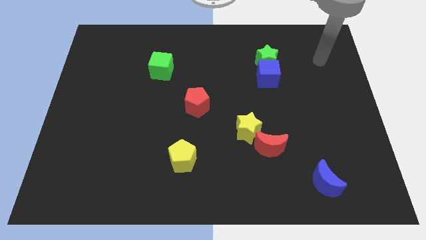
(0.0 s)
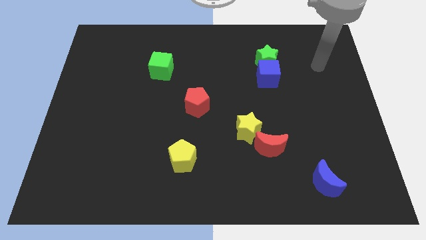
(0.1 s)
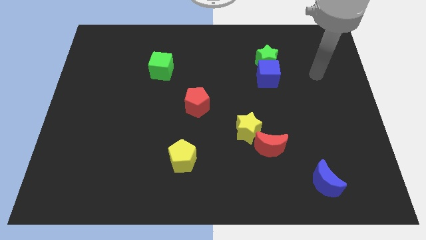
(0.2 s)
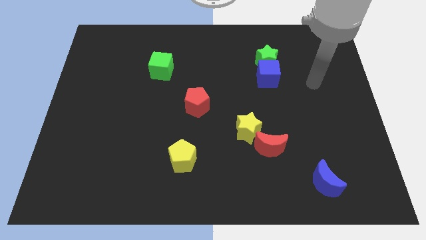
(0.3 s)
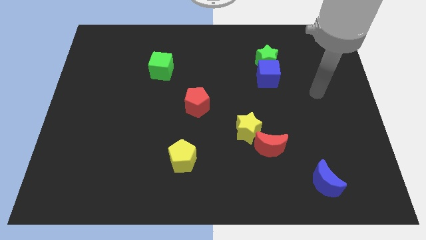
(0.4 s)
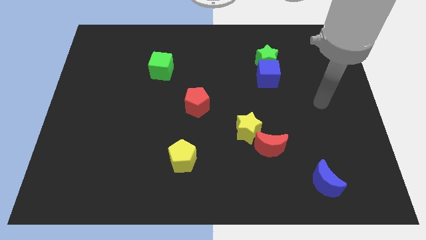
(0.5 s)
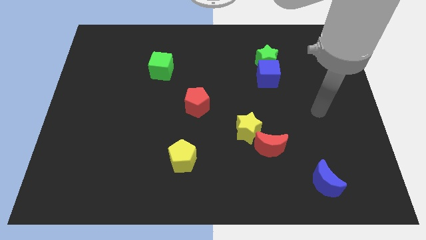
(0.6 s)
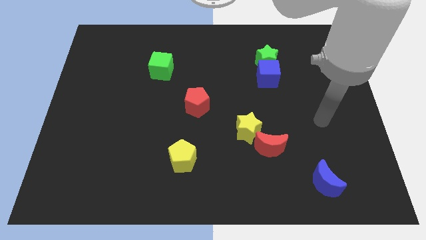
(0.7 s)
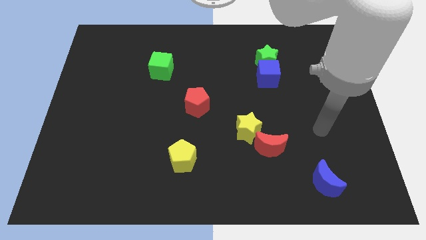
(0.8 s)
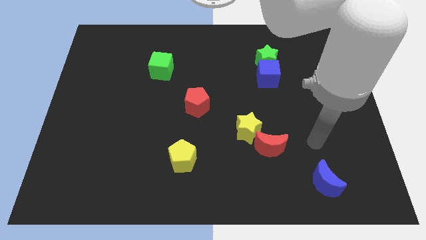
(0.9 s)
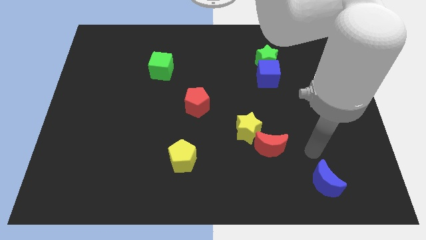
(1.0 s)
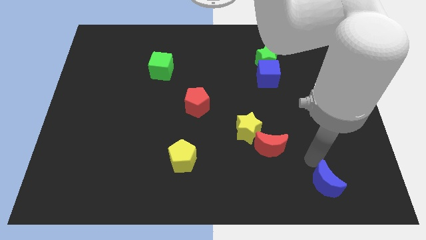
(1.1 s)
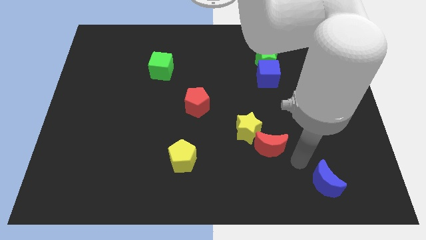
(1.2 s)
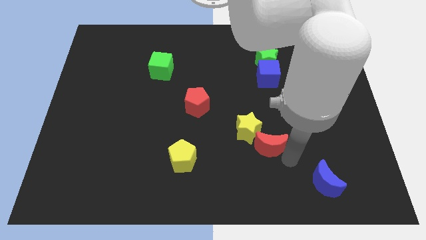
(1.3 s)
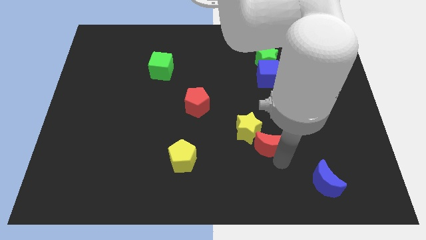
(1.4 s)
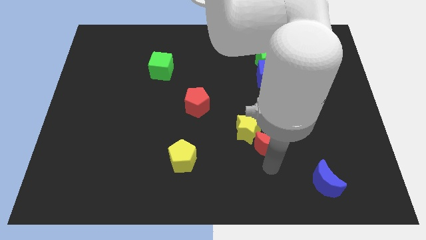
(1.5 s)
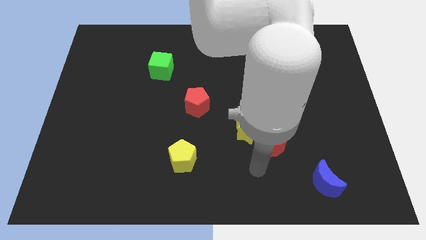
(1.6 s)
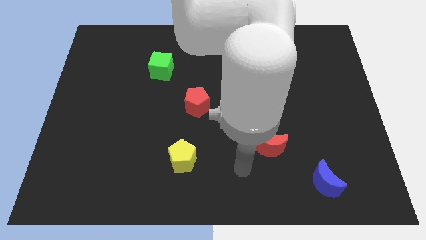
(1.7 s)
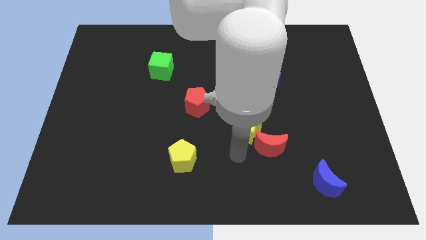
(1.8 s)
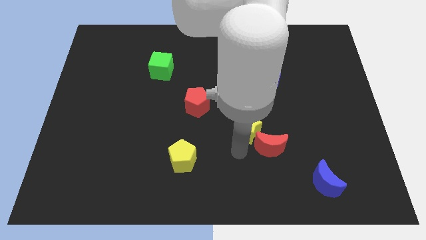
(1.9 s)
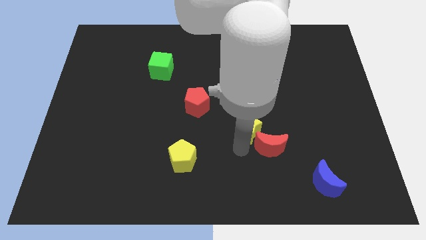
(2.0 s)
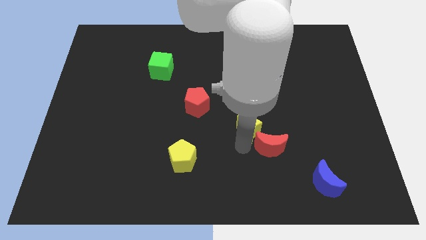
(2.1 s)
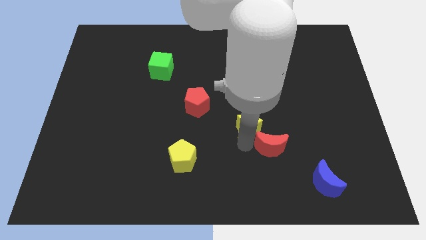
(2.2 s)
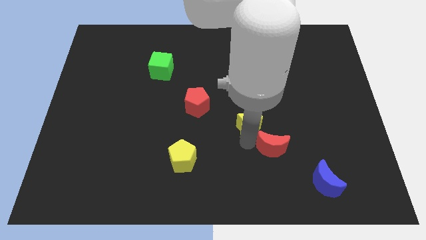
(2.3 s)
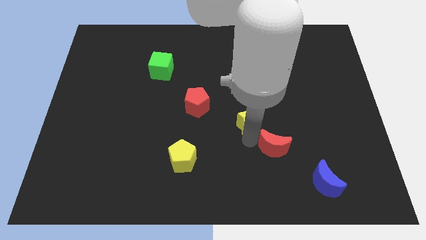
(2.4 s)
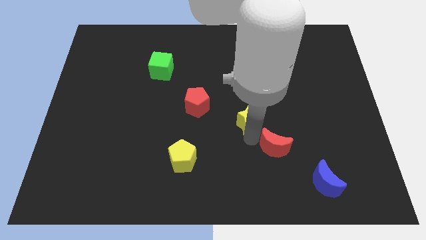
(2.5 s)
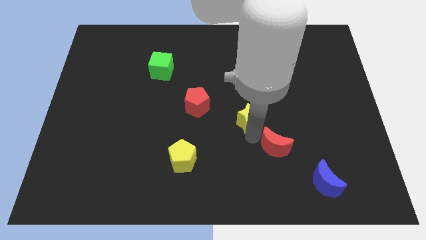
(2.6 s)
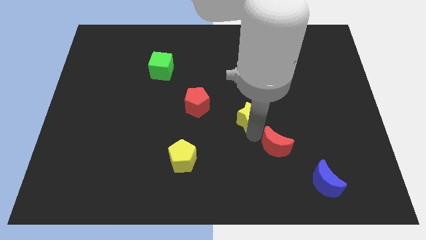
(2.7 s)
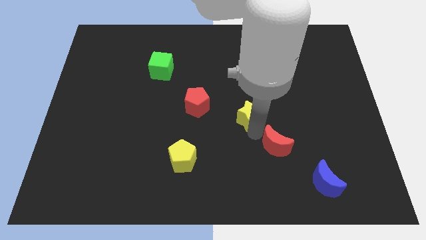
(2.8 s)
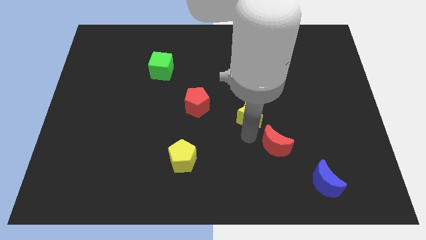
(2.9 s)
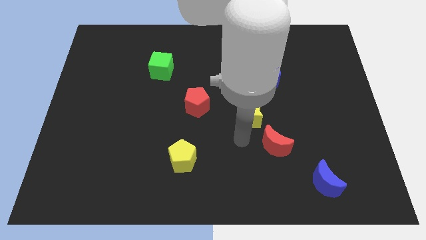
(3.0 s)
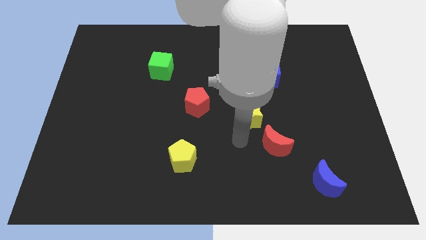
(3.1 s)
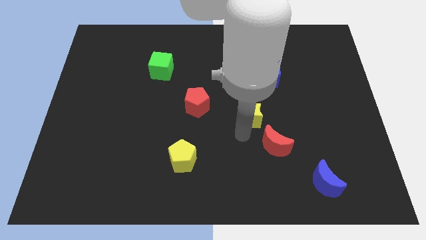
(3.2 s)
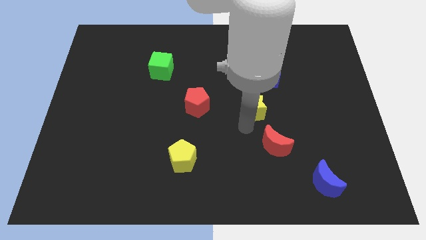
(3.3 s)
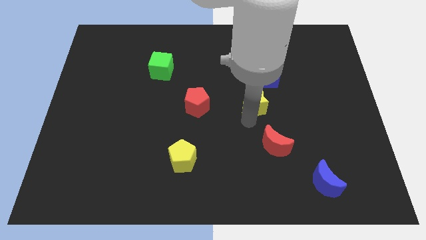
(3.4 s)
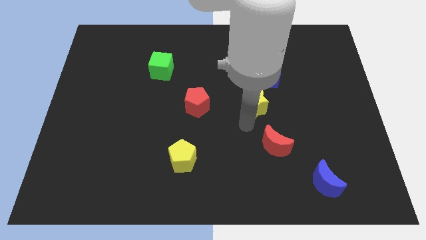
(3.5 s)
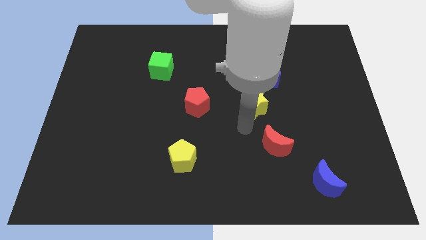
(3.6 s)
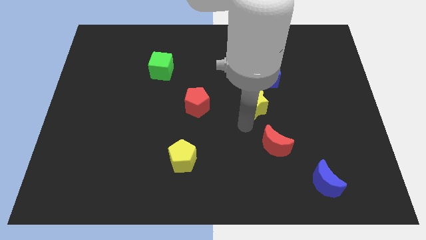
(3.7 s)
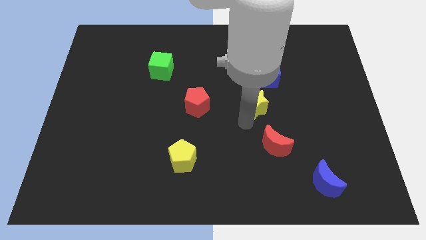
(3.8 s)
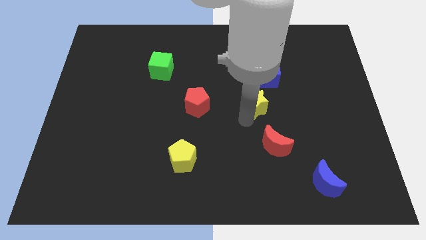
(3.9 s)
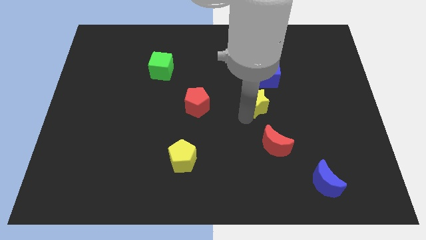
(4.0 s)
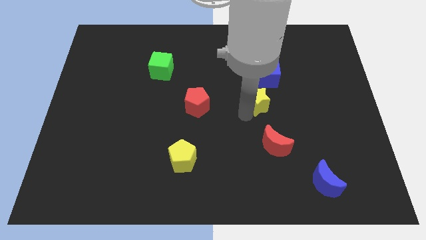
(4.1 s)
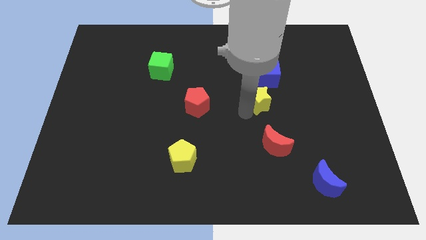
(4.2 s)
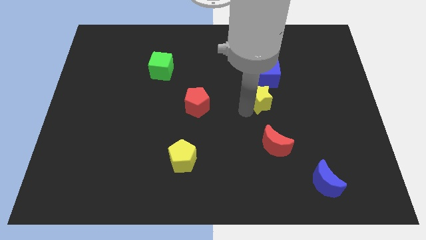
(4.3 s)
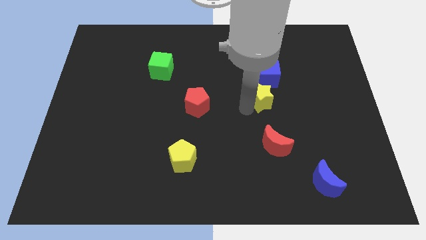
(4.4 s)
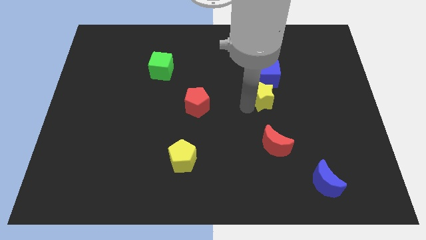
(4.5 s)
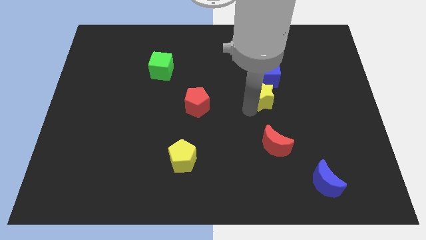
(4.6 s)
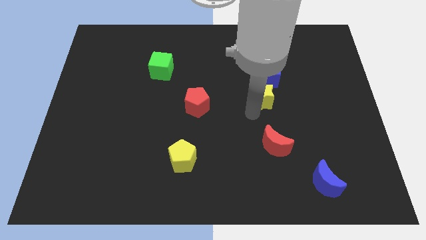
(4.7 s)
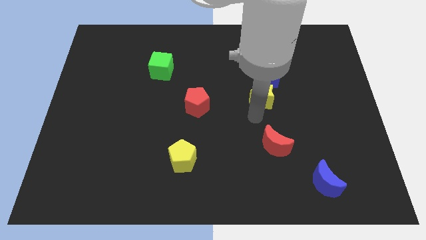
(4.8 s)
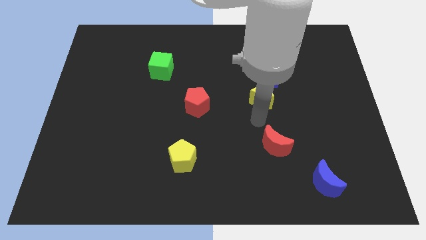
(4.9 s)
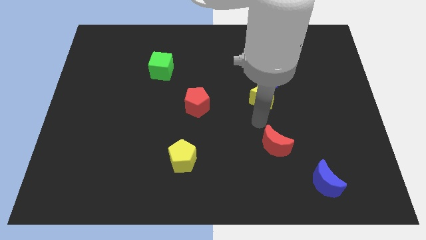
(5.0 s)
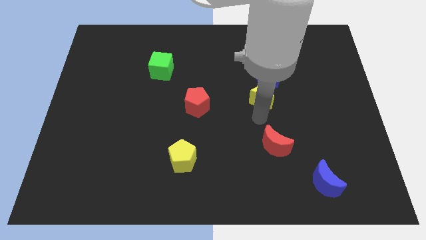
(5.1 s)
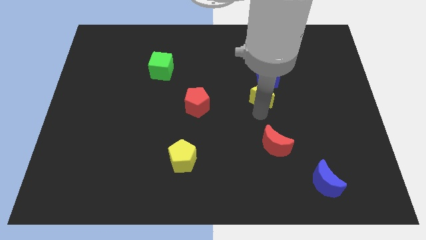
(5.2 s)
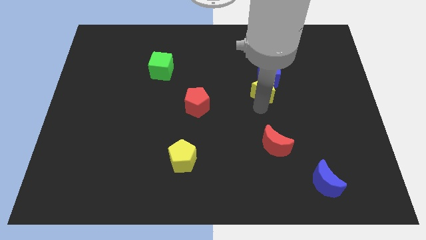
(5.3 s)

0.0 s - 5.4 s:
slide the yellow star to the blue cube
